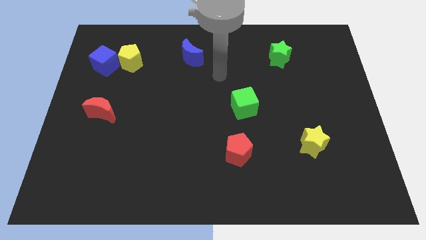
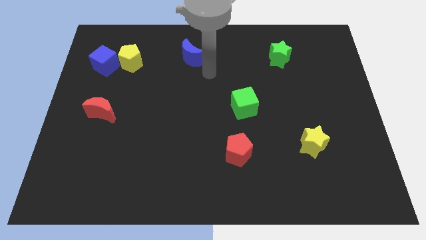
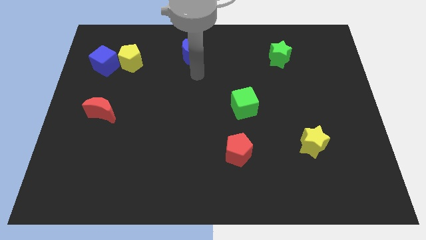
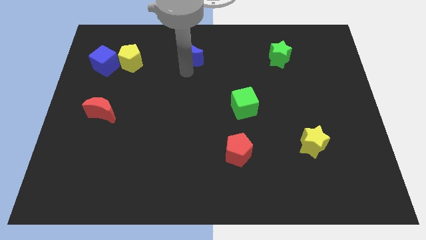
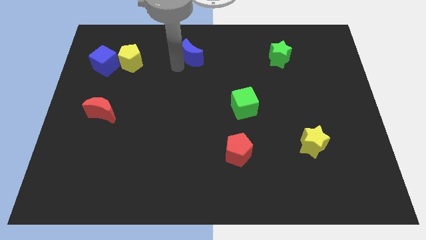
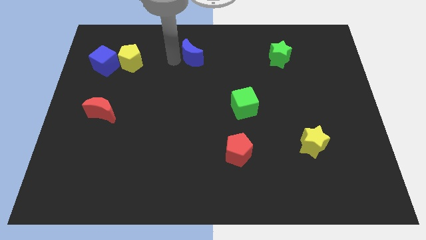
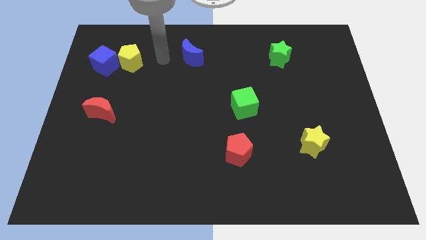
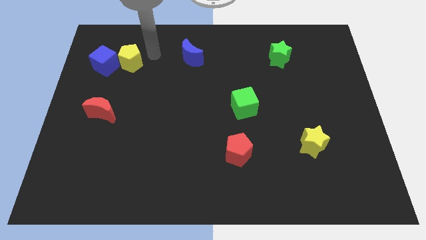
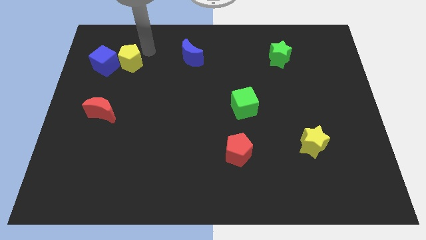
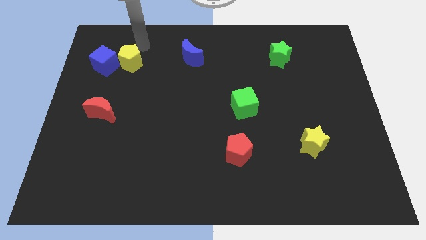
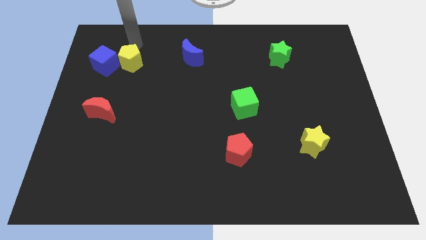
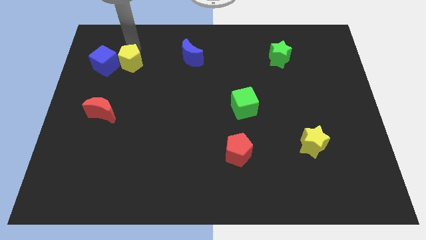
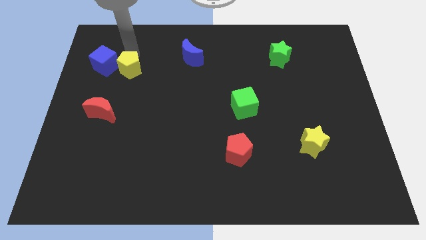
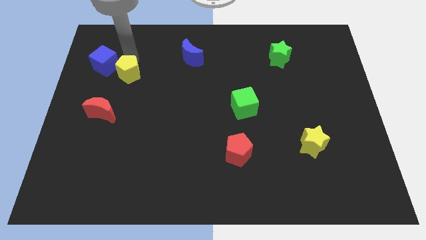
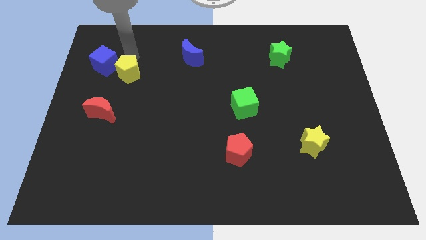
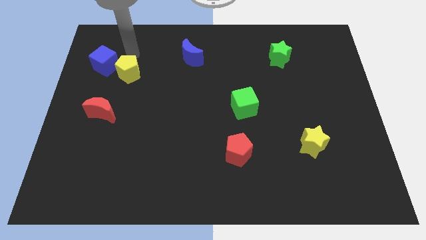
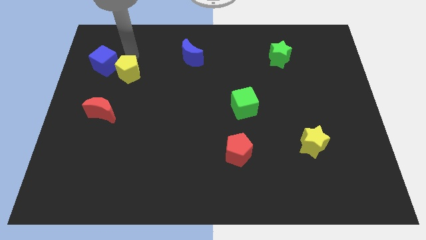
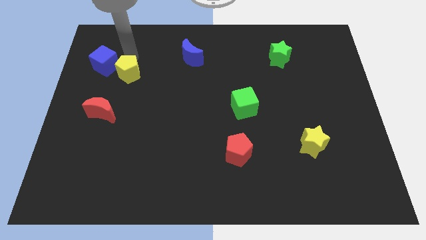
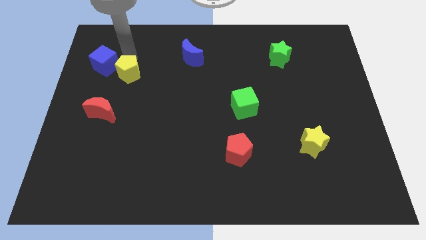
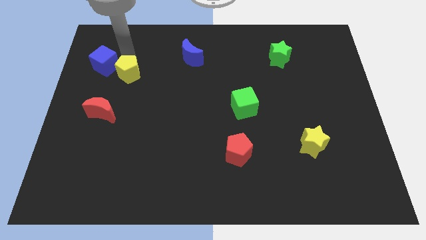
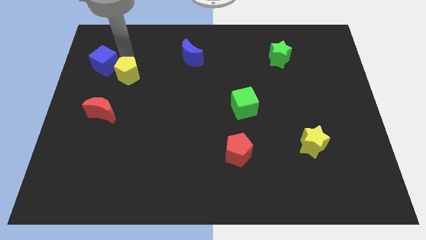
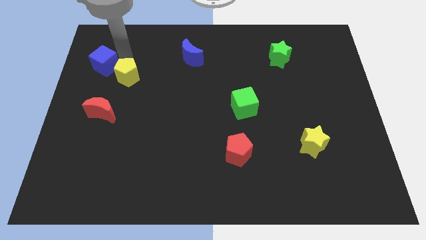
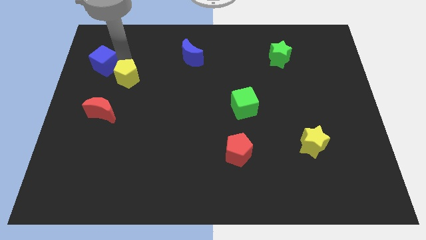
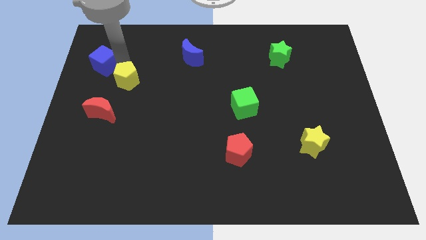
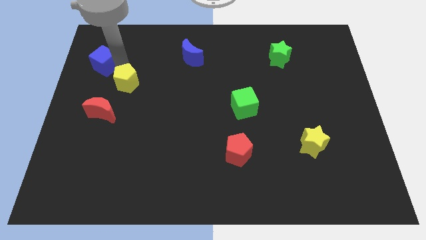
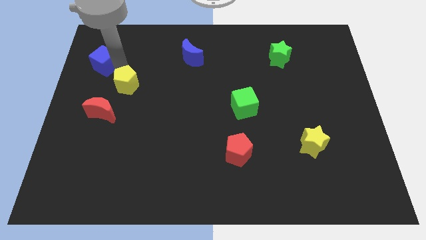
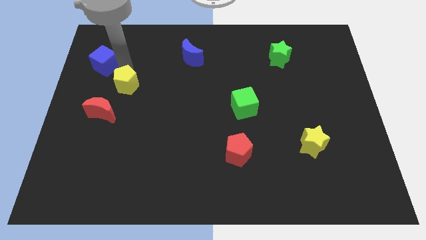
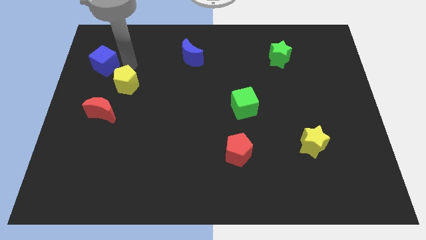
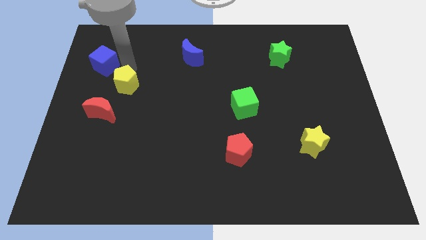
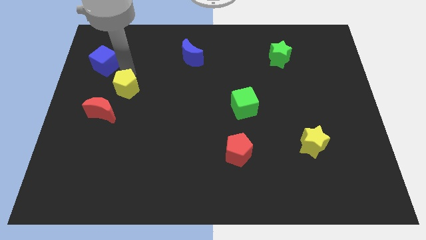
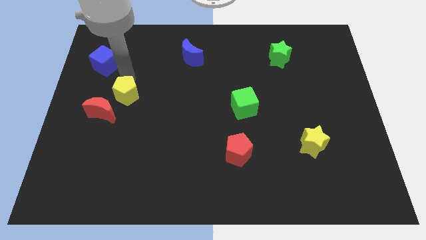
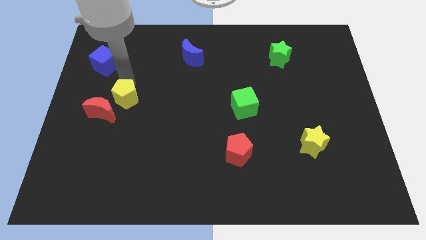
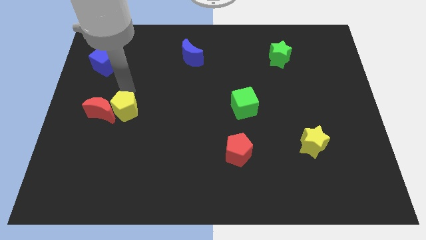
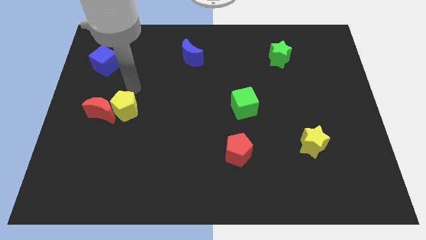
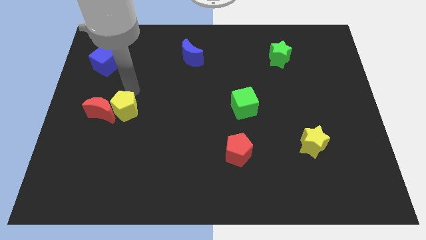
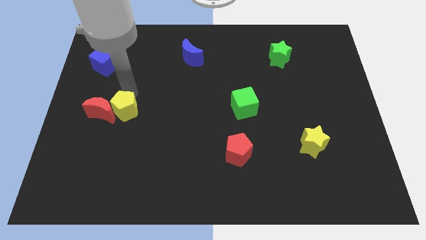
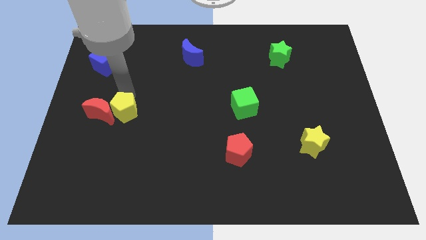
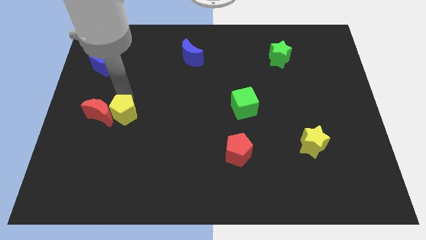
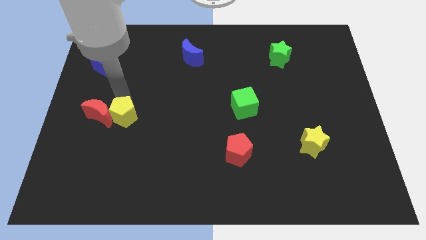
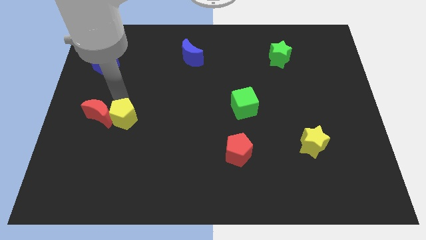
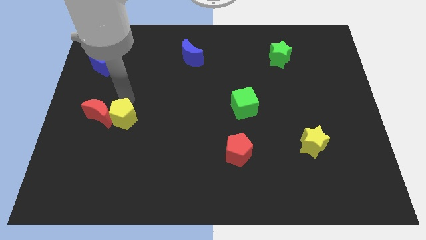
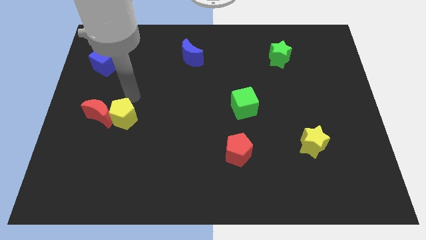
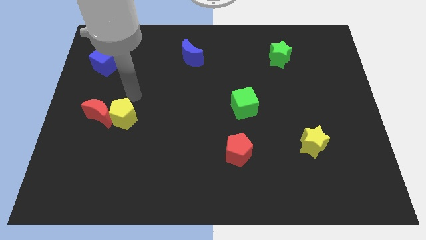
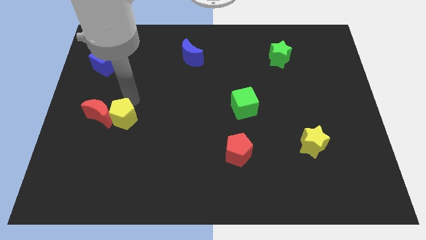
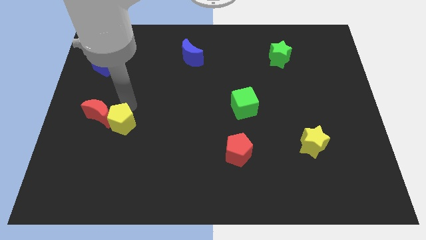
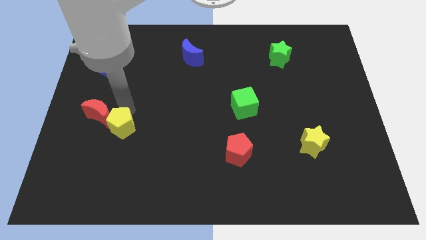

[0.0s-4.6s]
move the yellow pentagon downwards

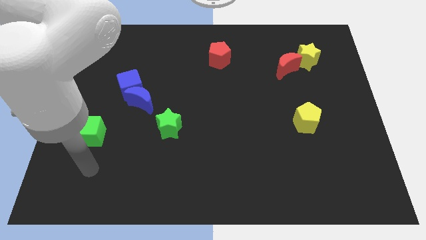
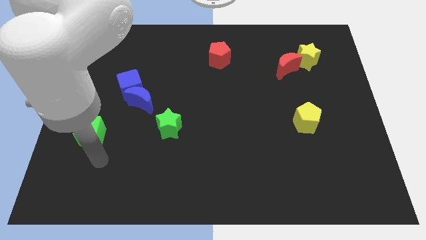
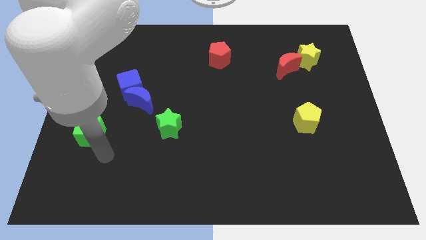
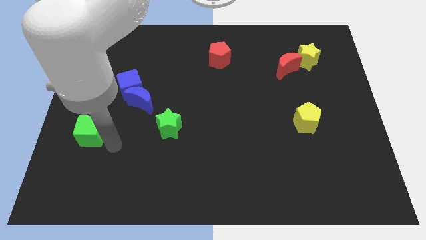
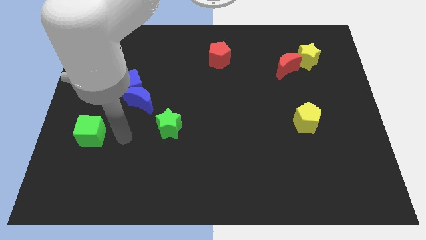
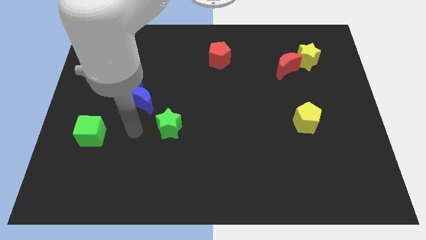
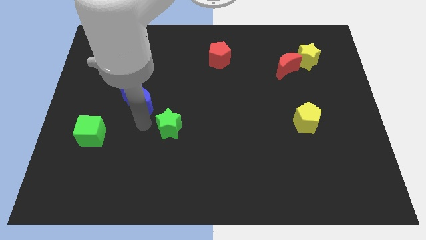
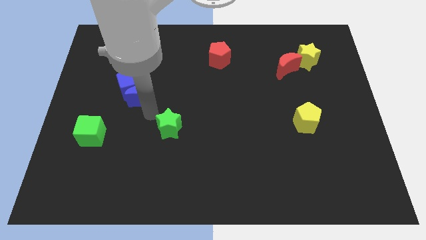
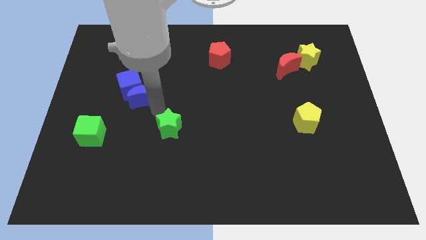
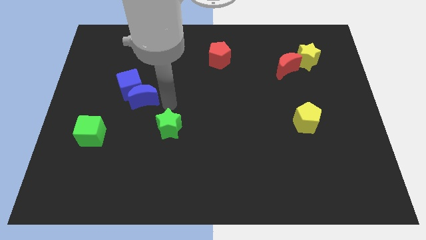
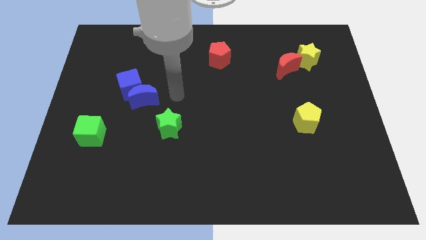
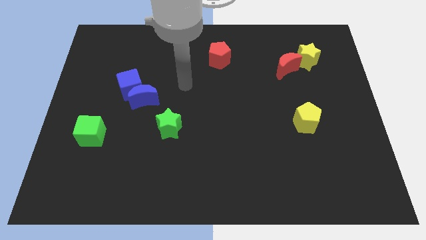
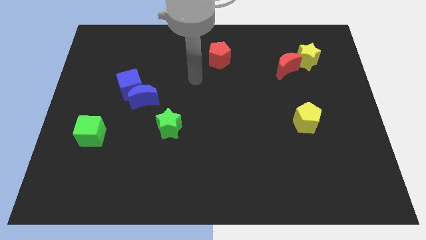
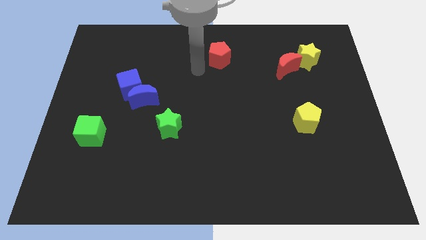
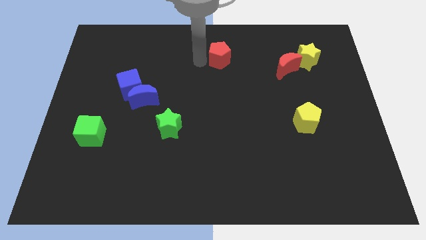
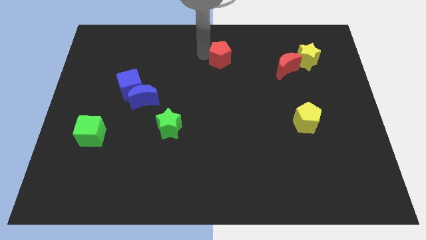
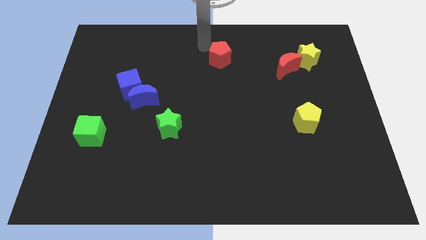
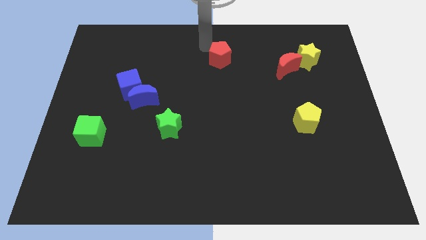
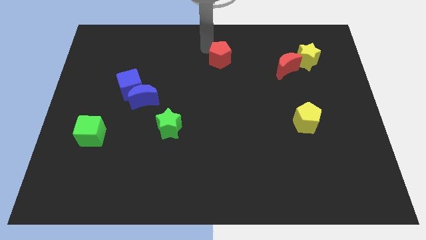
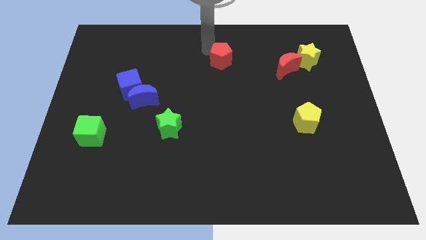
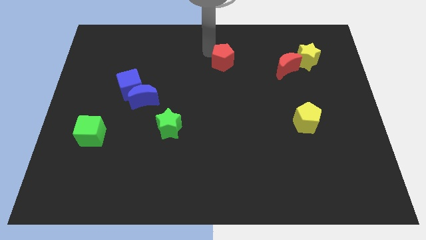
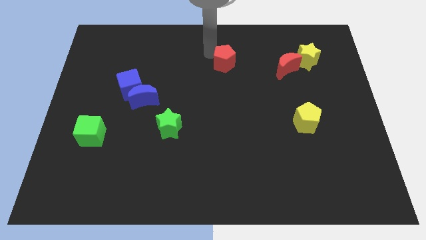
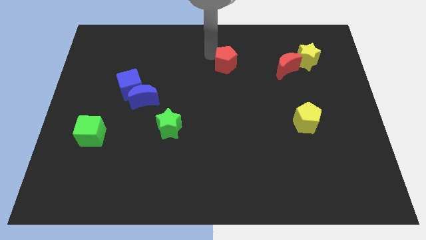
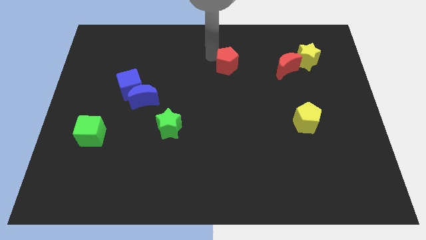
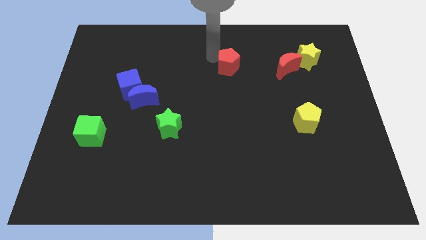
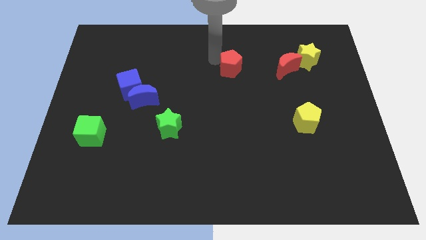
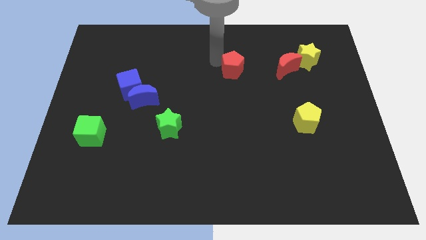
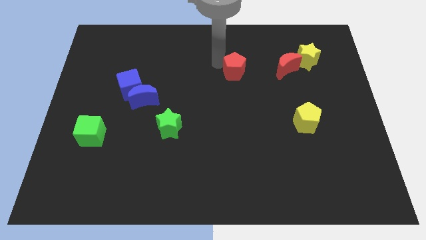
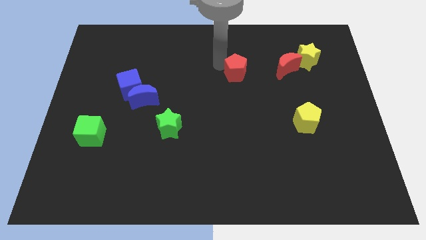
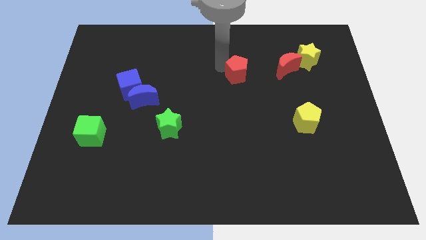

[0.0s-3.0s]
slide the red pentagon diagonally down and to the right a bit

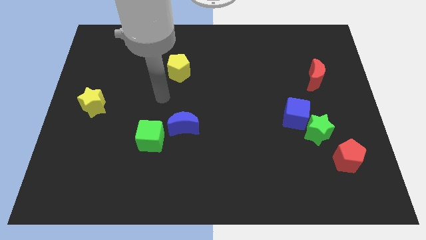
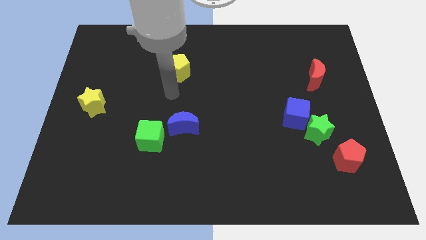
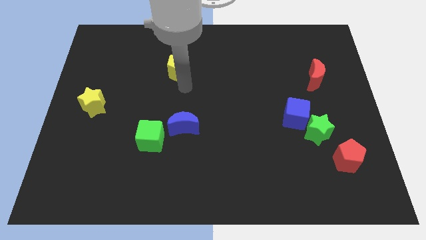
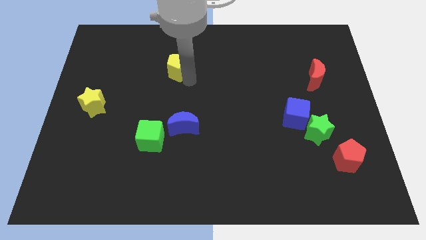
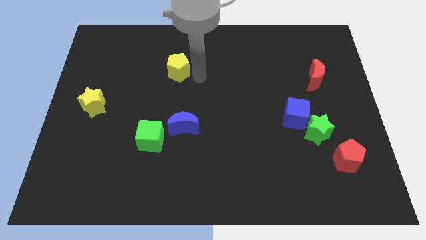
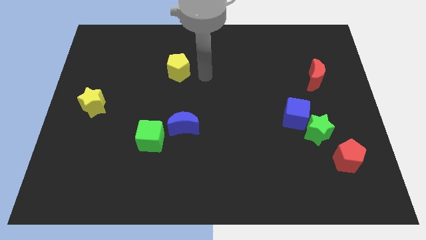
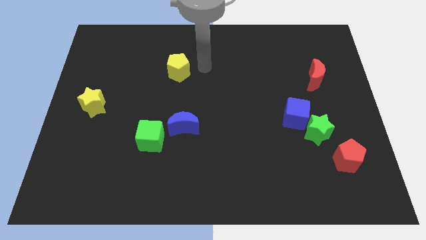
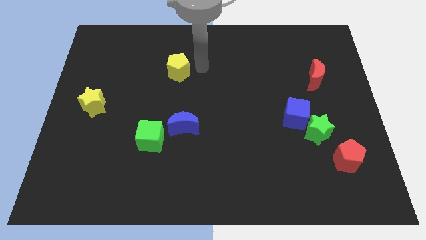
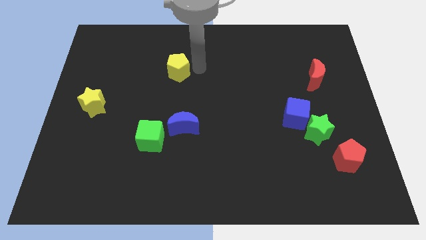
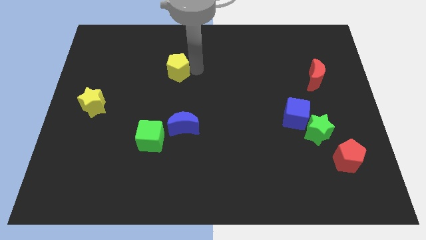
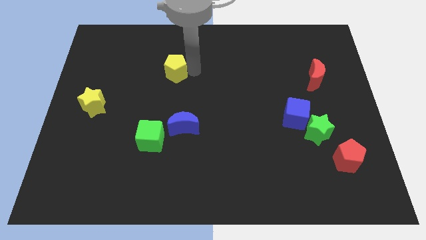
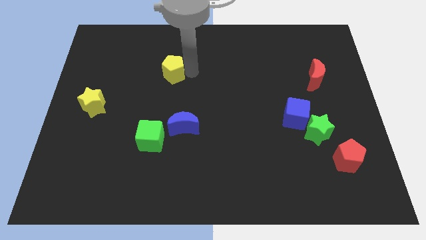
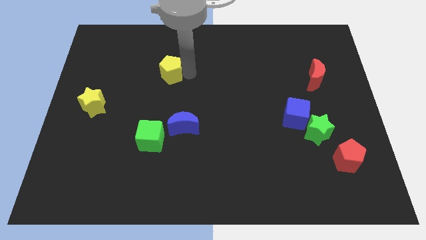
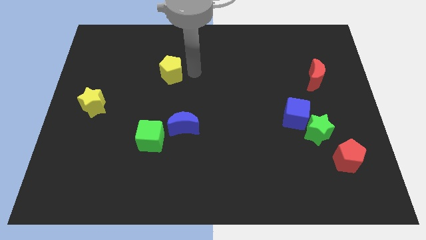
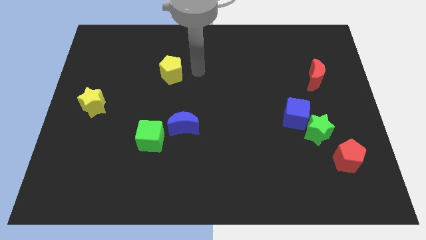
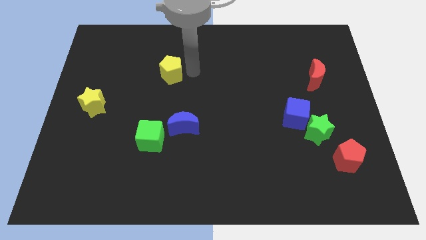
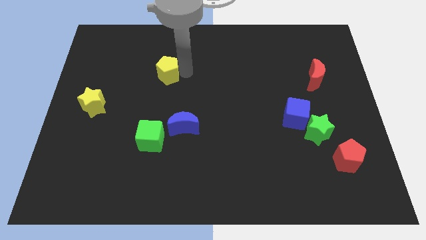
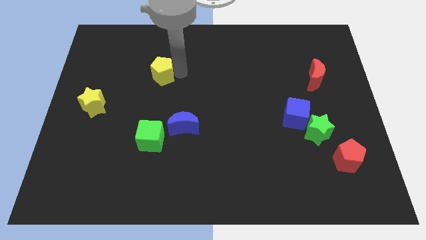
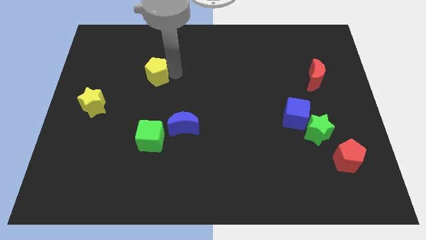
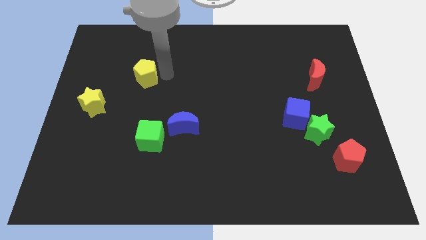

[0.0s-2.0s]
slightly slide the yellow pentagon left
